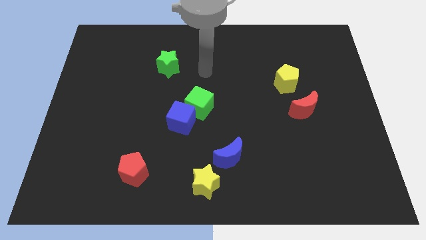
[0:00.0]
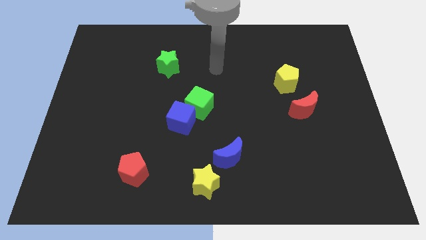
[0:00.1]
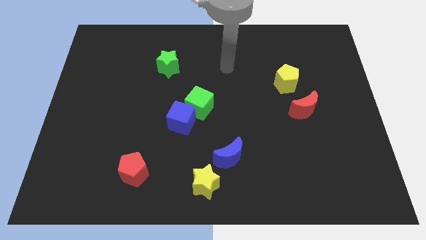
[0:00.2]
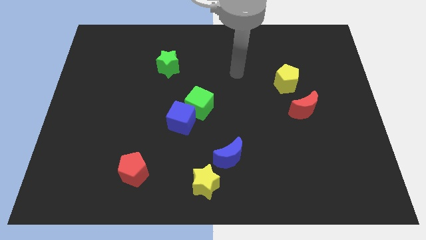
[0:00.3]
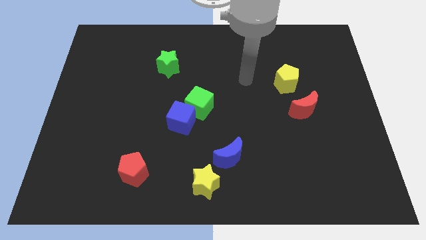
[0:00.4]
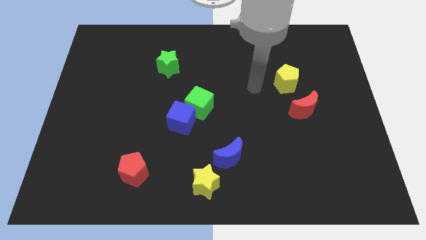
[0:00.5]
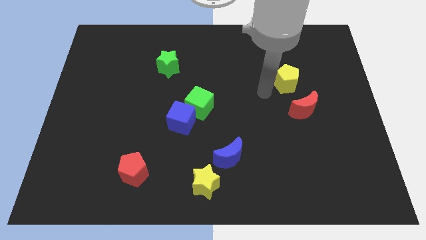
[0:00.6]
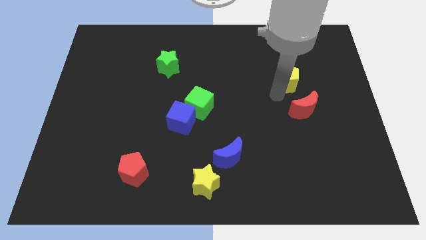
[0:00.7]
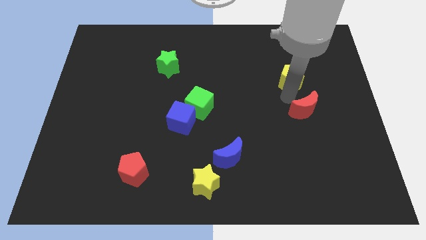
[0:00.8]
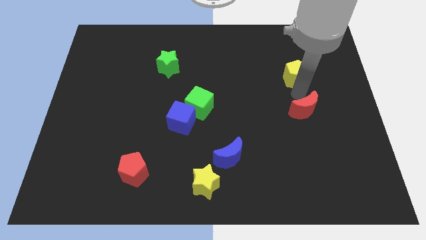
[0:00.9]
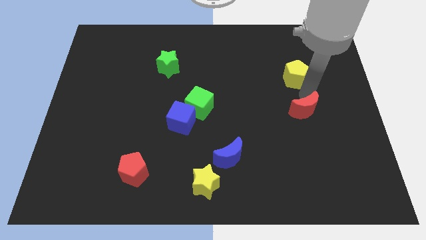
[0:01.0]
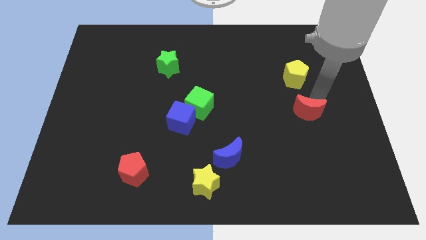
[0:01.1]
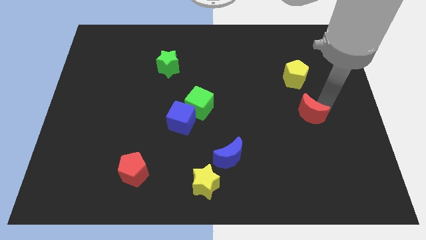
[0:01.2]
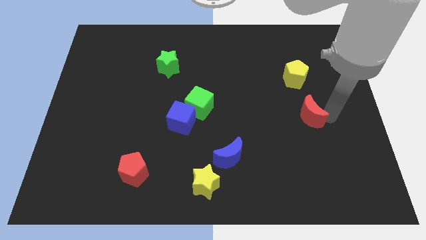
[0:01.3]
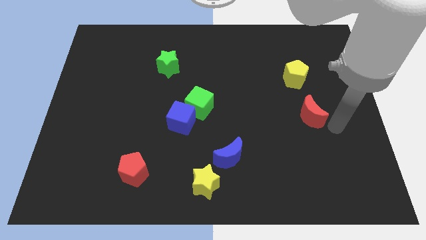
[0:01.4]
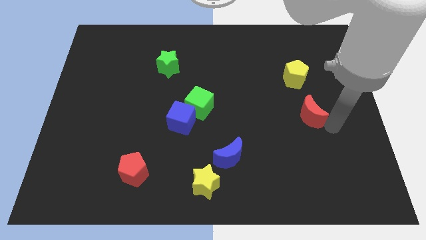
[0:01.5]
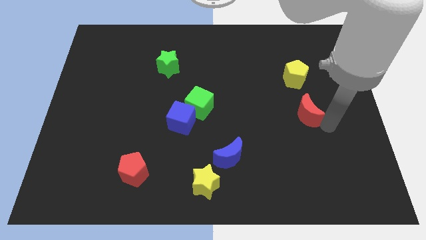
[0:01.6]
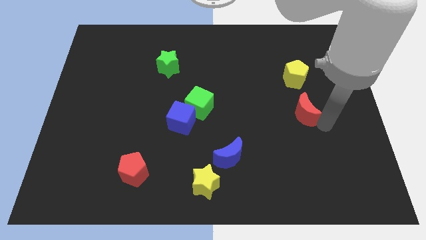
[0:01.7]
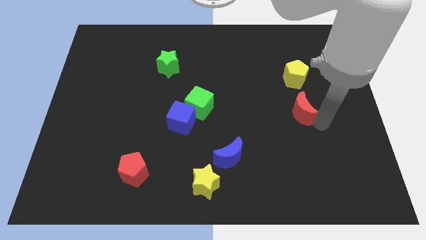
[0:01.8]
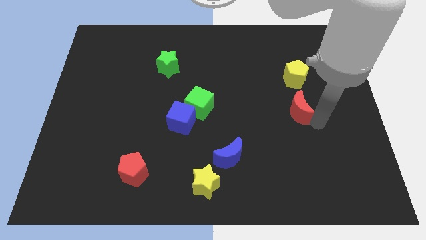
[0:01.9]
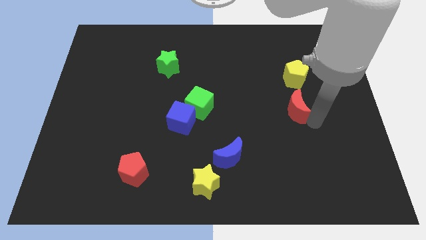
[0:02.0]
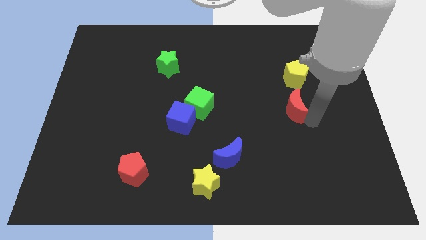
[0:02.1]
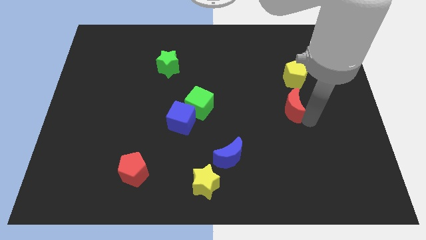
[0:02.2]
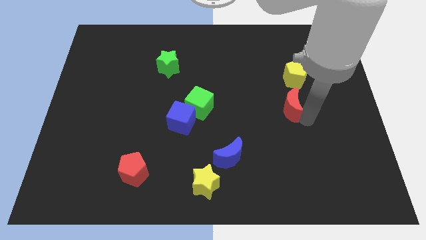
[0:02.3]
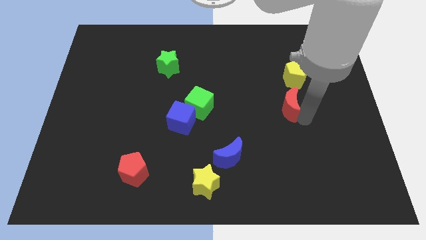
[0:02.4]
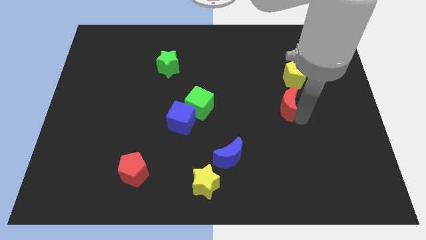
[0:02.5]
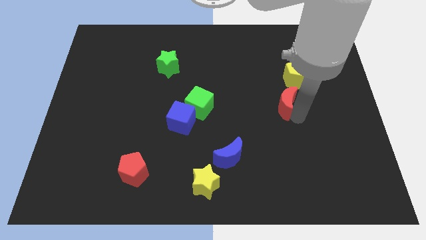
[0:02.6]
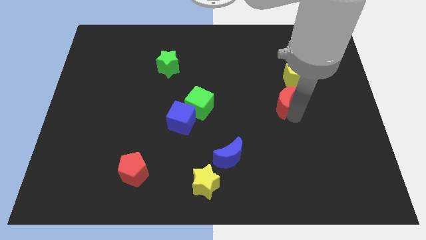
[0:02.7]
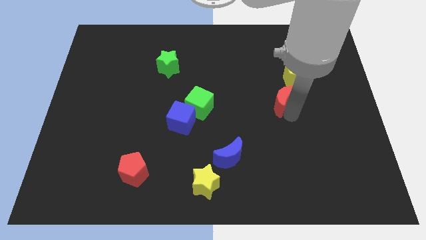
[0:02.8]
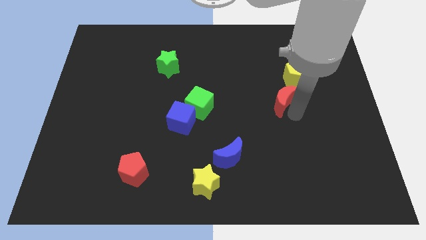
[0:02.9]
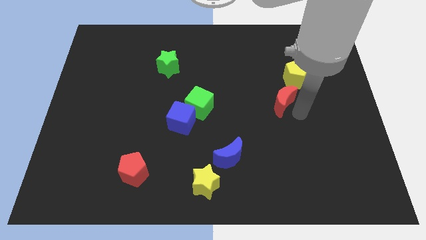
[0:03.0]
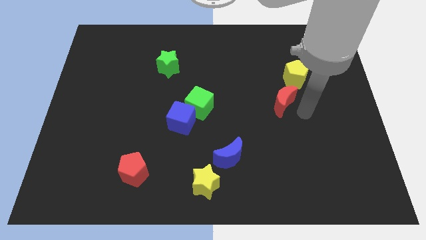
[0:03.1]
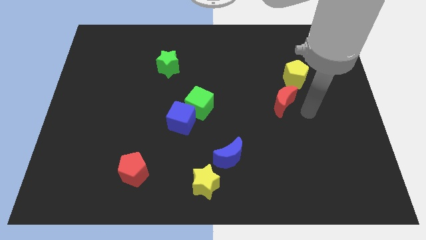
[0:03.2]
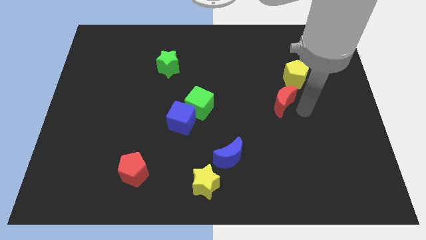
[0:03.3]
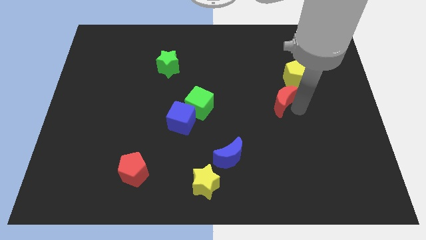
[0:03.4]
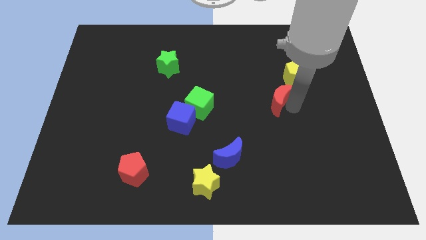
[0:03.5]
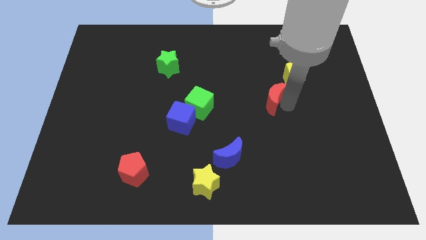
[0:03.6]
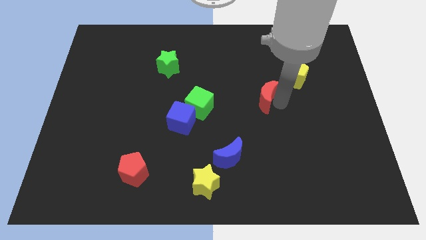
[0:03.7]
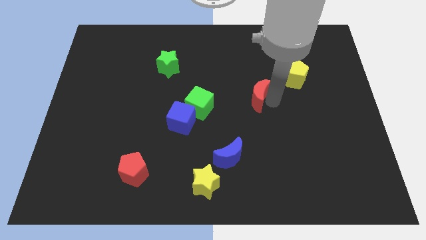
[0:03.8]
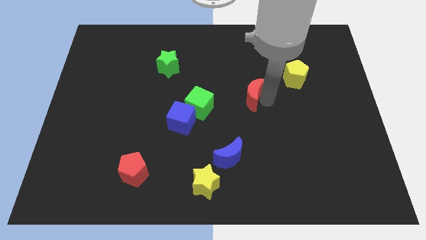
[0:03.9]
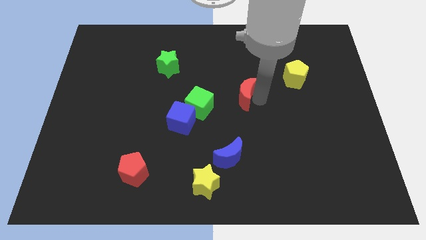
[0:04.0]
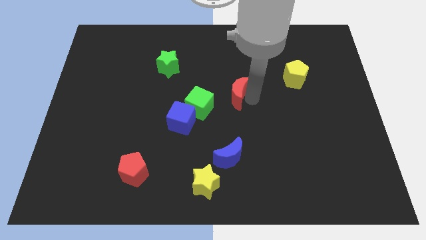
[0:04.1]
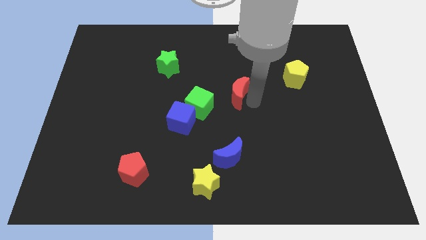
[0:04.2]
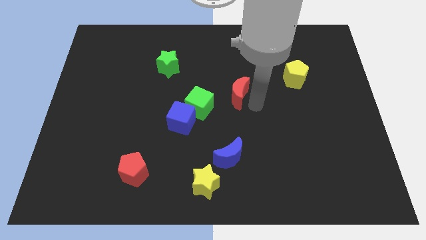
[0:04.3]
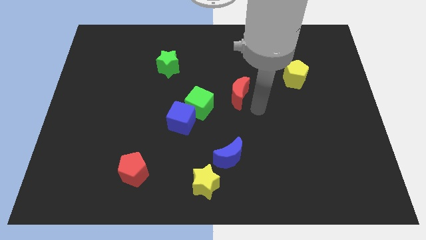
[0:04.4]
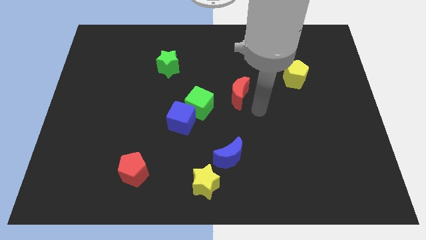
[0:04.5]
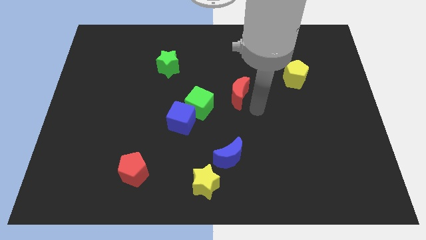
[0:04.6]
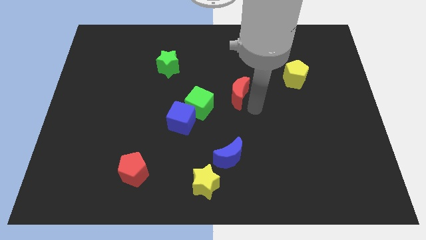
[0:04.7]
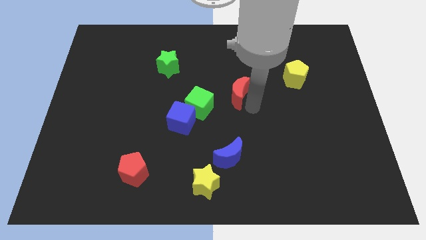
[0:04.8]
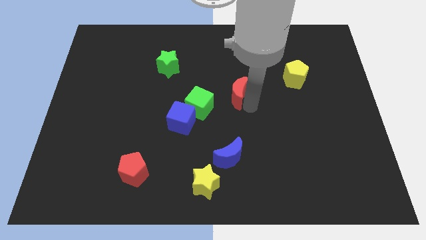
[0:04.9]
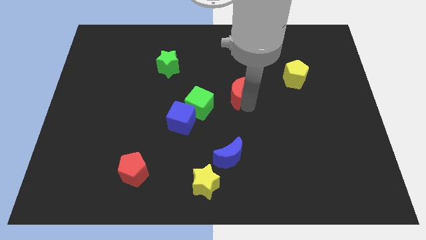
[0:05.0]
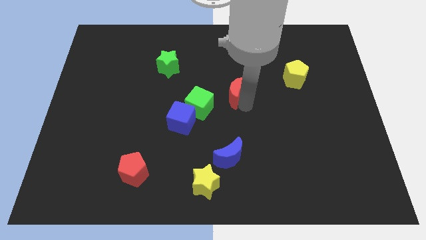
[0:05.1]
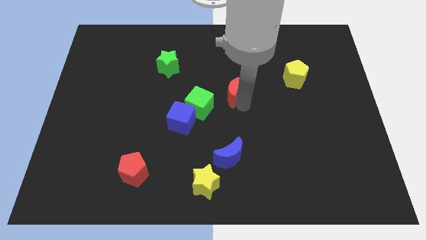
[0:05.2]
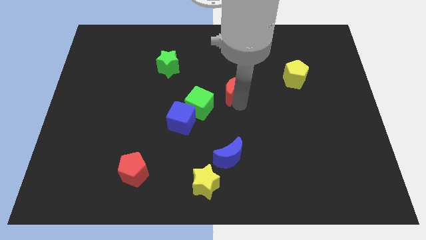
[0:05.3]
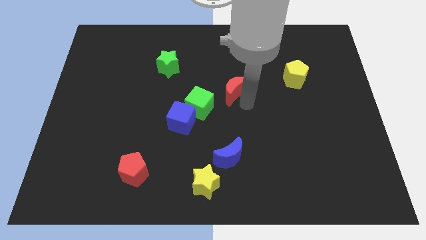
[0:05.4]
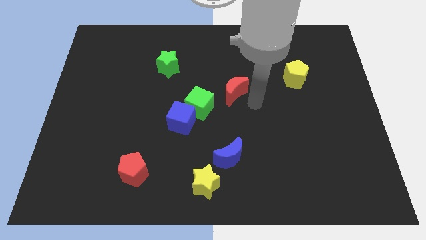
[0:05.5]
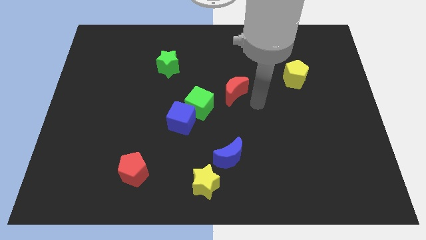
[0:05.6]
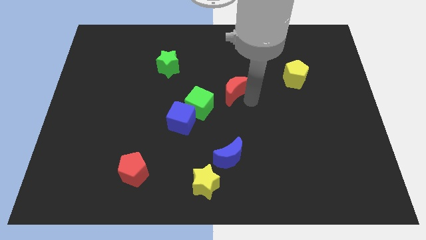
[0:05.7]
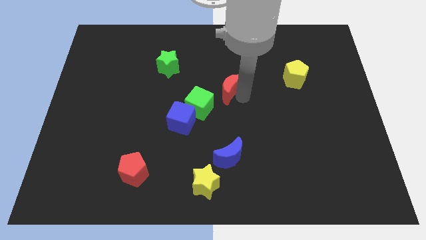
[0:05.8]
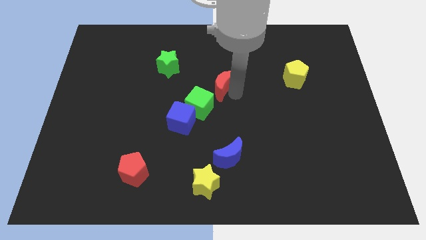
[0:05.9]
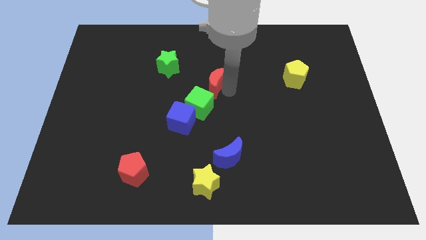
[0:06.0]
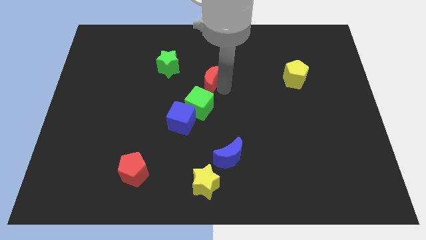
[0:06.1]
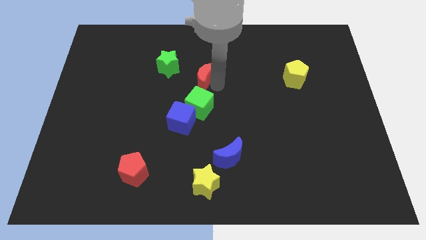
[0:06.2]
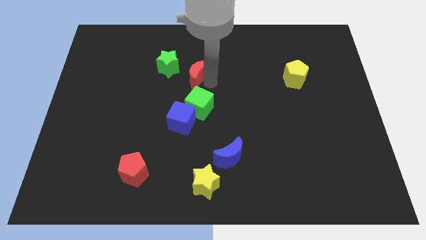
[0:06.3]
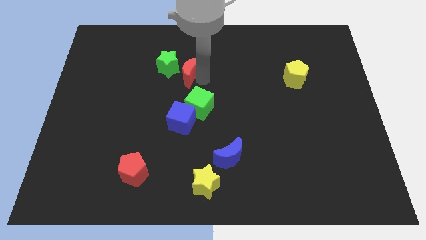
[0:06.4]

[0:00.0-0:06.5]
move the red moon next to the green star

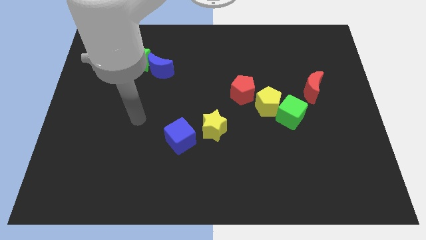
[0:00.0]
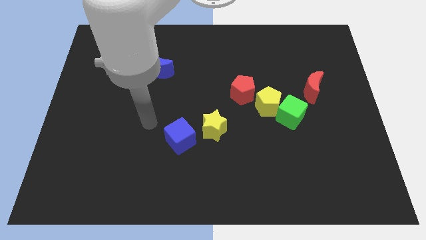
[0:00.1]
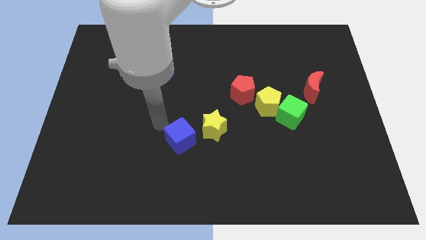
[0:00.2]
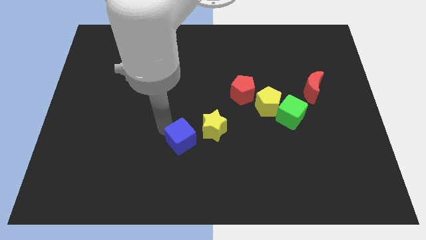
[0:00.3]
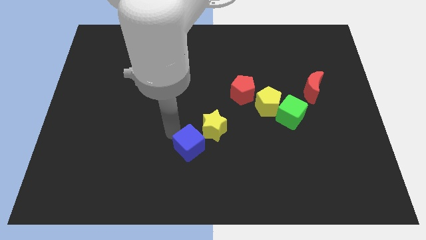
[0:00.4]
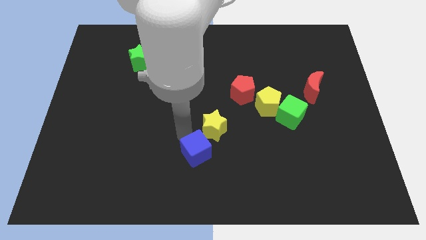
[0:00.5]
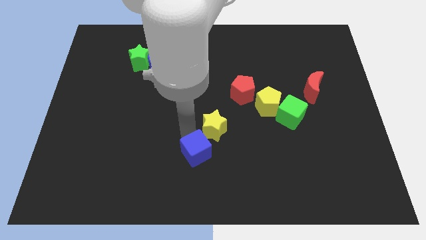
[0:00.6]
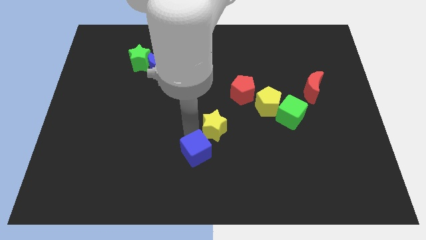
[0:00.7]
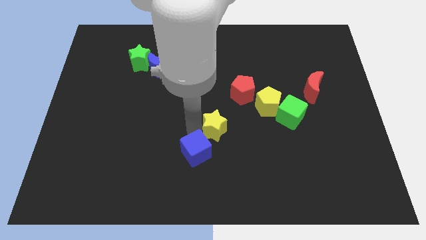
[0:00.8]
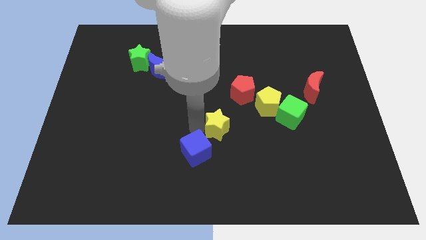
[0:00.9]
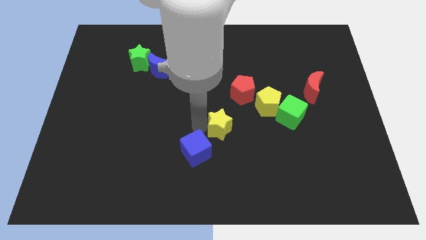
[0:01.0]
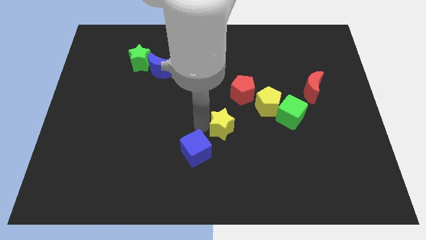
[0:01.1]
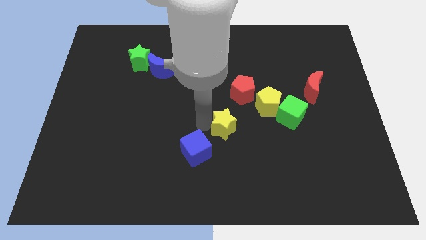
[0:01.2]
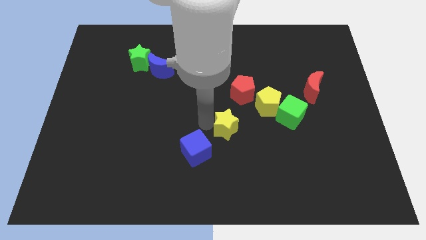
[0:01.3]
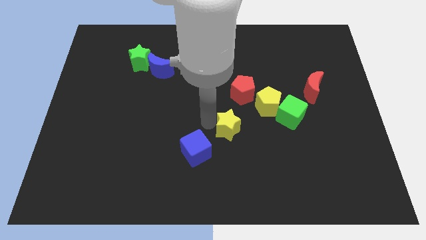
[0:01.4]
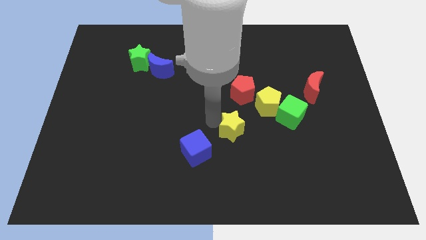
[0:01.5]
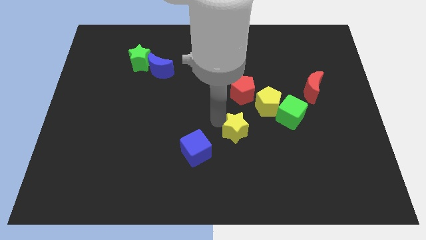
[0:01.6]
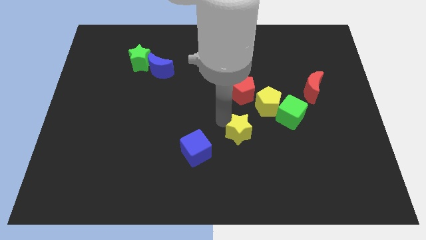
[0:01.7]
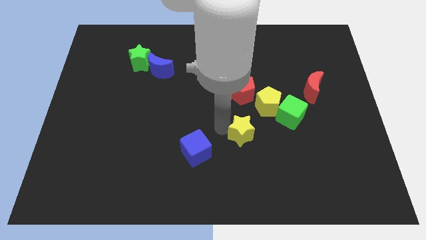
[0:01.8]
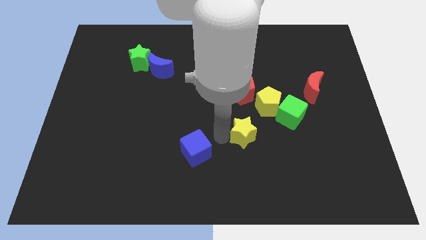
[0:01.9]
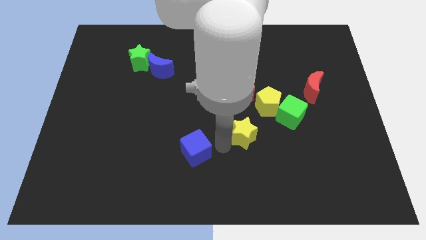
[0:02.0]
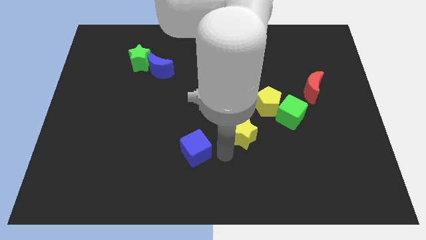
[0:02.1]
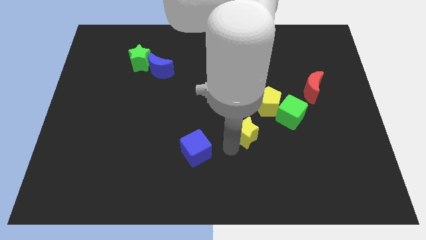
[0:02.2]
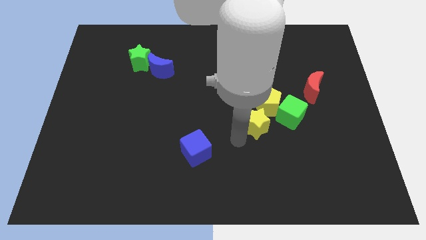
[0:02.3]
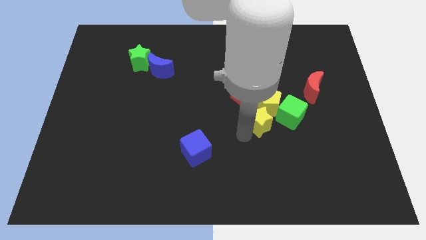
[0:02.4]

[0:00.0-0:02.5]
put the yellow star next to the yellow pentagon
